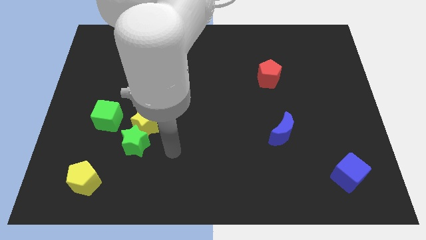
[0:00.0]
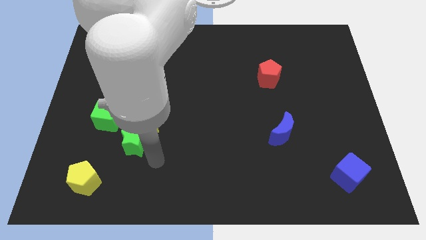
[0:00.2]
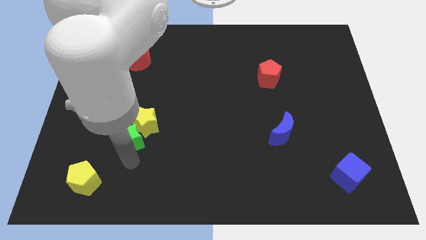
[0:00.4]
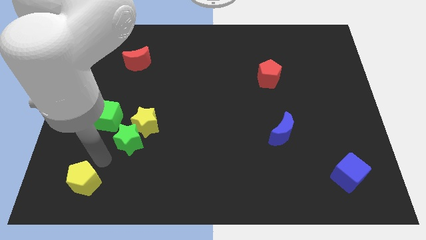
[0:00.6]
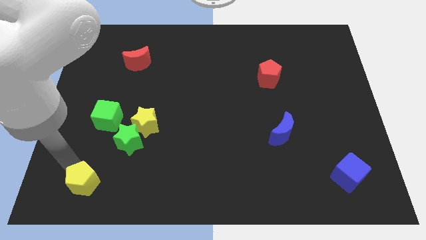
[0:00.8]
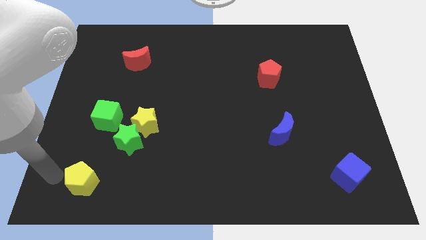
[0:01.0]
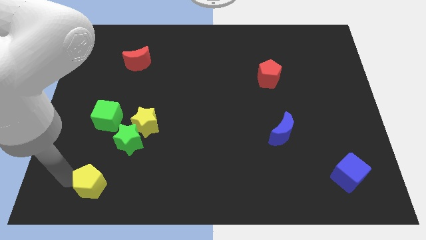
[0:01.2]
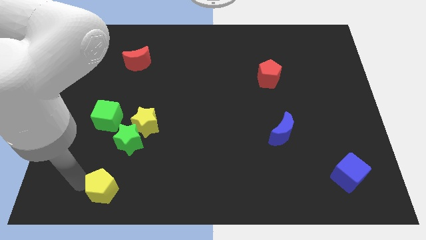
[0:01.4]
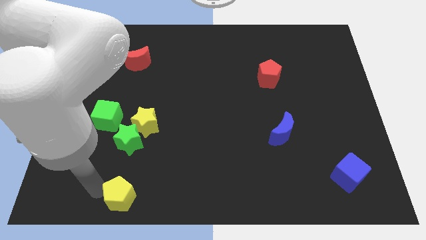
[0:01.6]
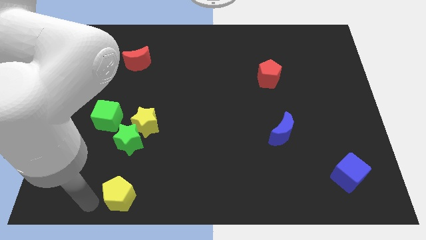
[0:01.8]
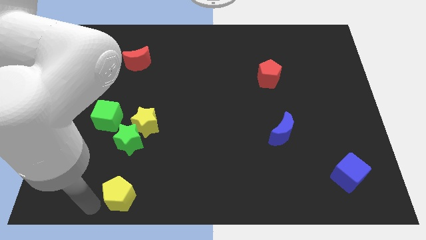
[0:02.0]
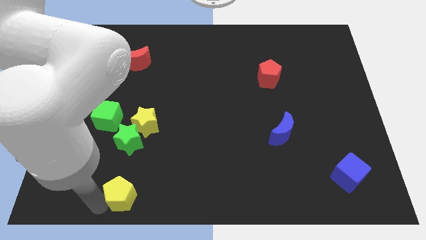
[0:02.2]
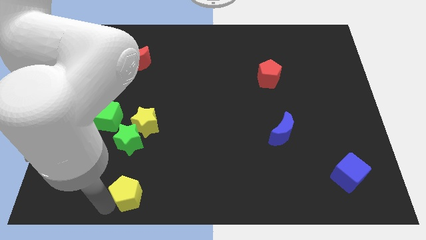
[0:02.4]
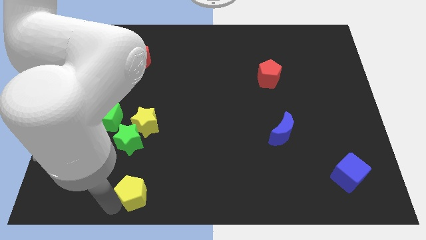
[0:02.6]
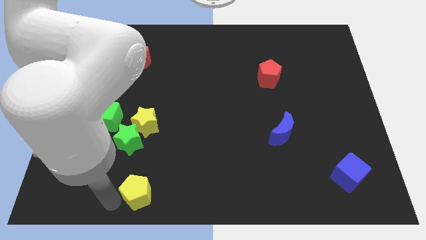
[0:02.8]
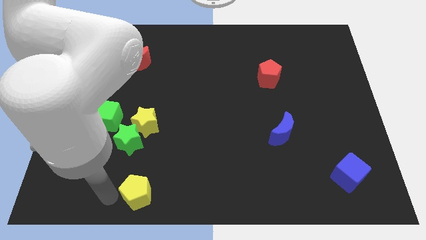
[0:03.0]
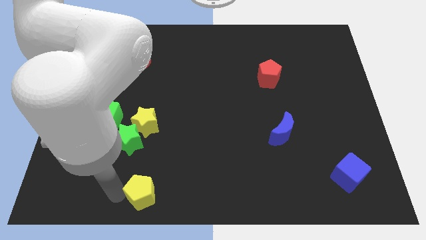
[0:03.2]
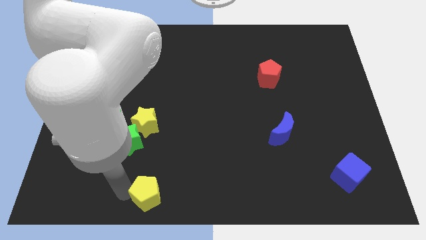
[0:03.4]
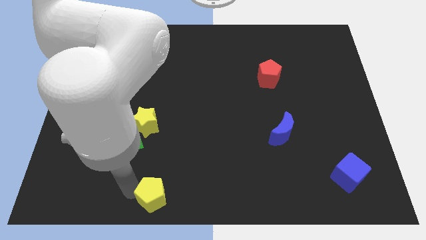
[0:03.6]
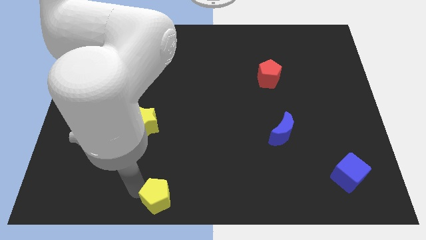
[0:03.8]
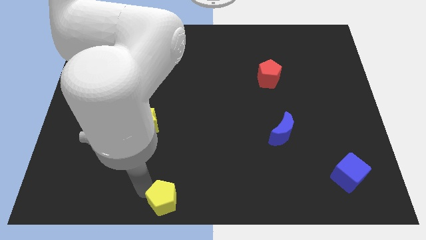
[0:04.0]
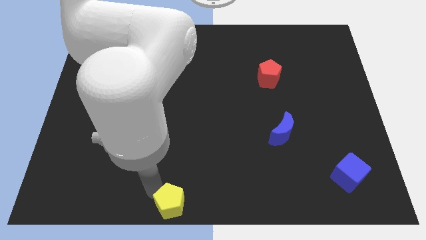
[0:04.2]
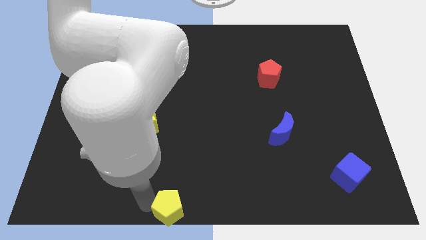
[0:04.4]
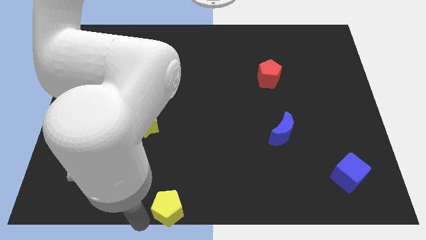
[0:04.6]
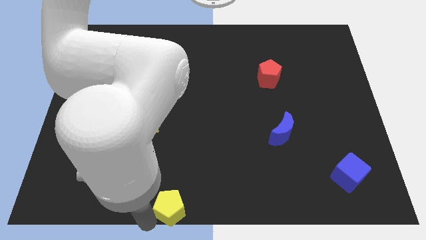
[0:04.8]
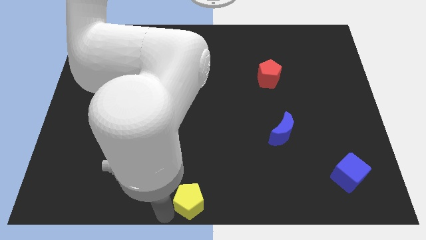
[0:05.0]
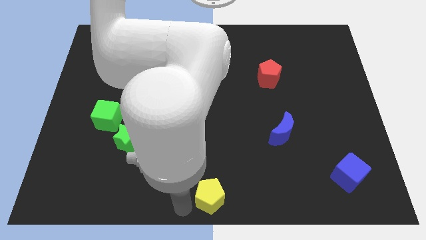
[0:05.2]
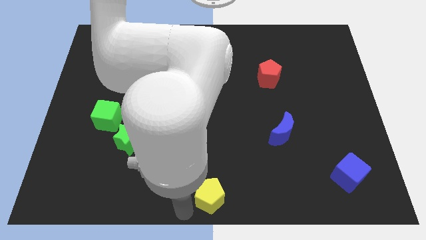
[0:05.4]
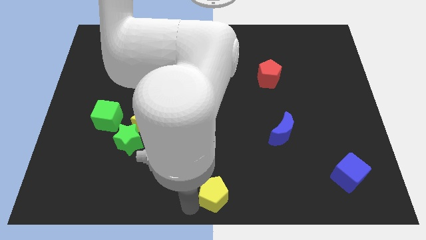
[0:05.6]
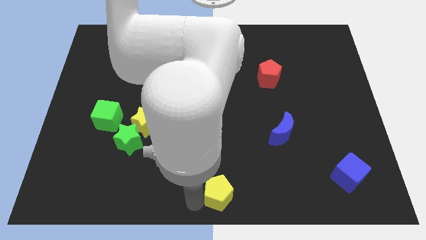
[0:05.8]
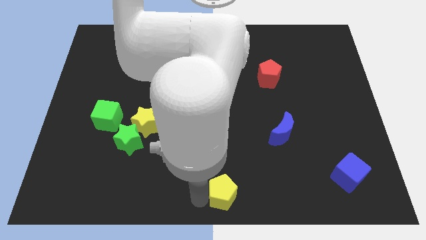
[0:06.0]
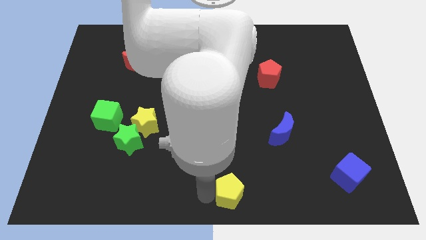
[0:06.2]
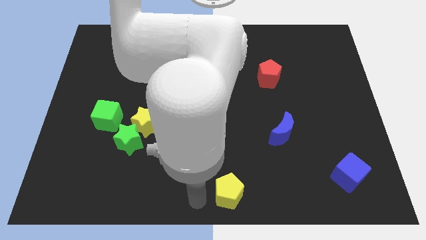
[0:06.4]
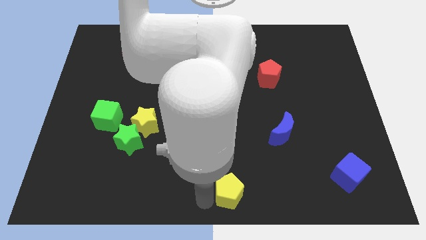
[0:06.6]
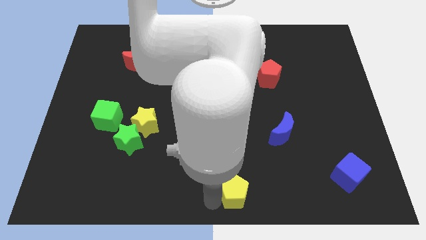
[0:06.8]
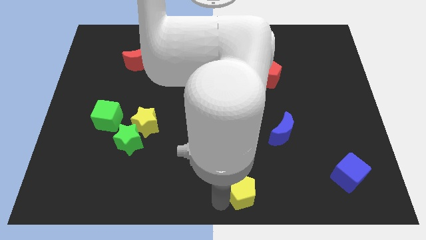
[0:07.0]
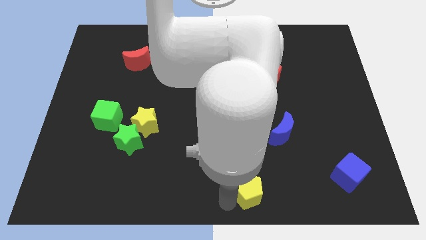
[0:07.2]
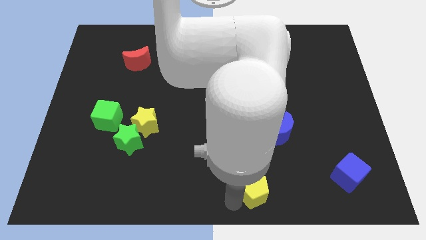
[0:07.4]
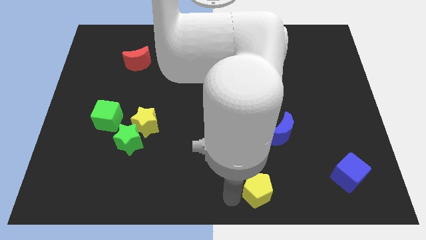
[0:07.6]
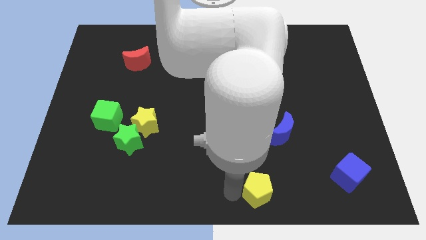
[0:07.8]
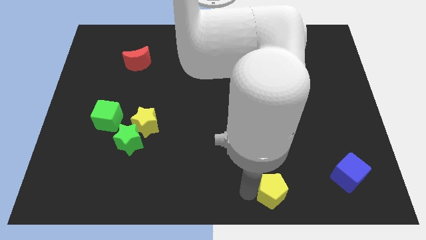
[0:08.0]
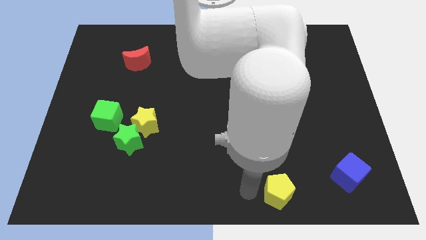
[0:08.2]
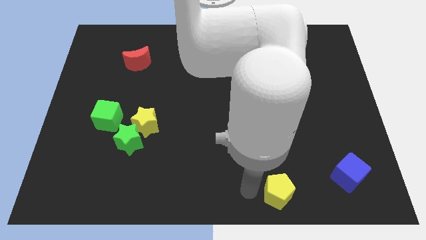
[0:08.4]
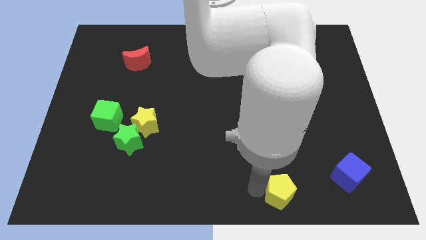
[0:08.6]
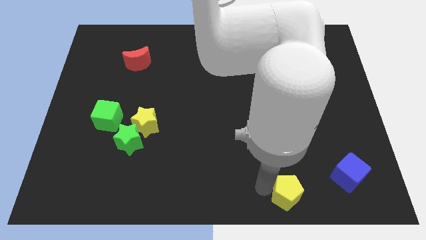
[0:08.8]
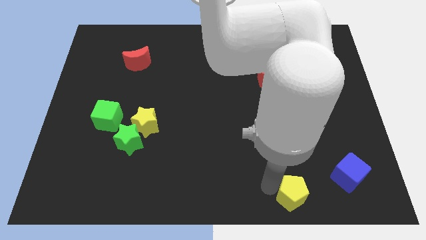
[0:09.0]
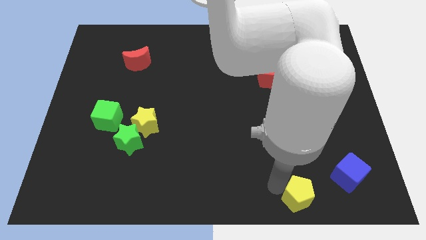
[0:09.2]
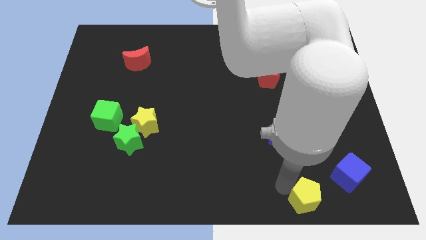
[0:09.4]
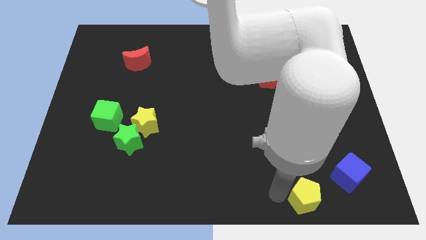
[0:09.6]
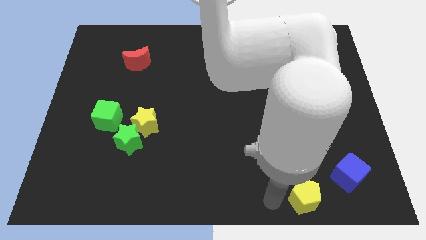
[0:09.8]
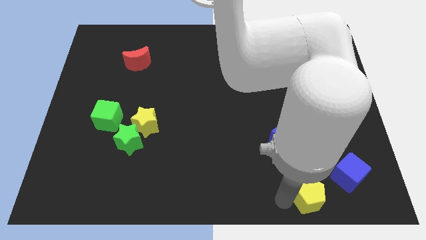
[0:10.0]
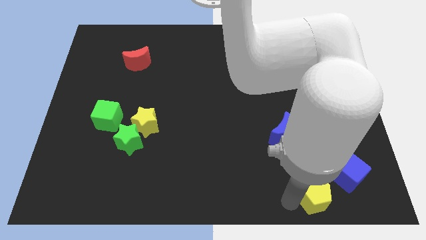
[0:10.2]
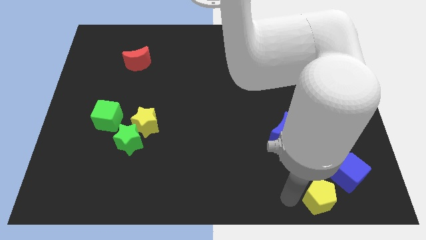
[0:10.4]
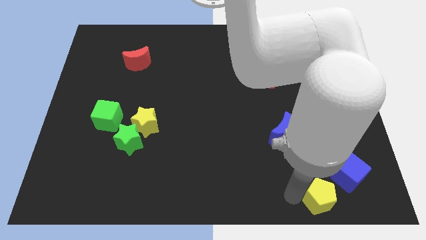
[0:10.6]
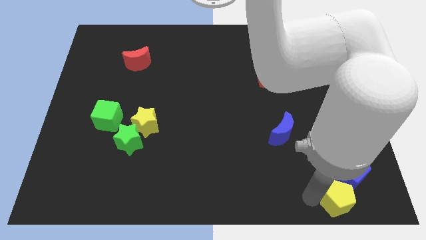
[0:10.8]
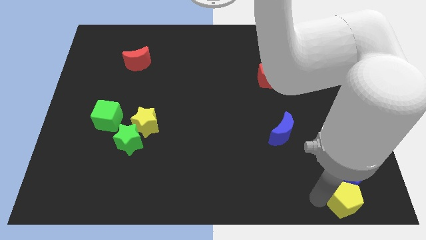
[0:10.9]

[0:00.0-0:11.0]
move the yellow pentagon to the bottom right

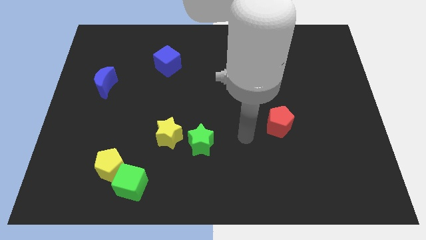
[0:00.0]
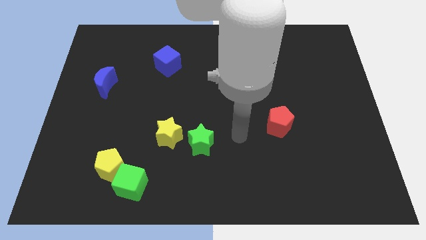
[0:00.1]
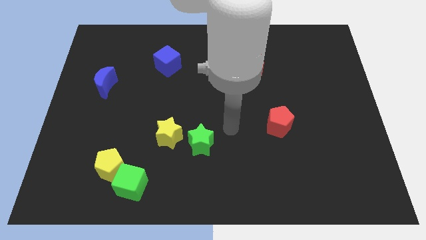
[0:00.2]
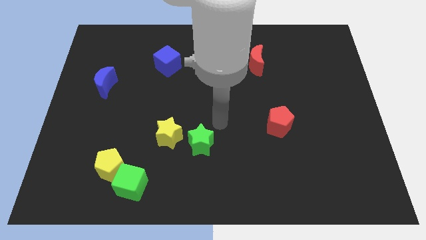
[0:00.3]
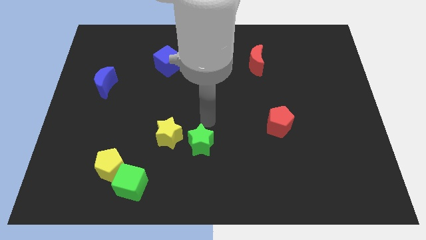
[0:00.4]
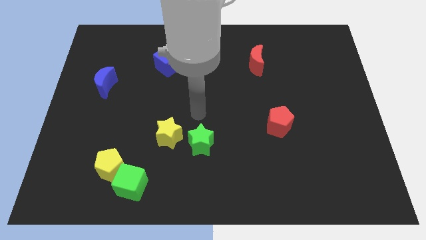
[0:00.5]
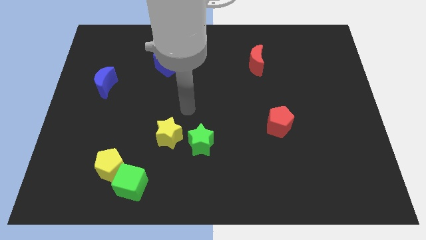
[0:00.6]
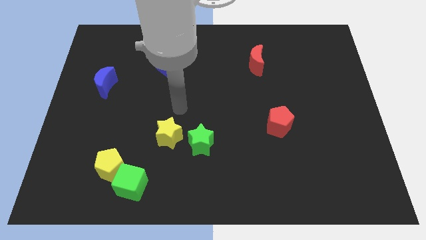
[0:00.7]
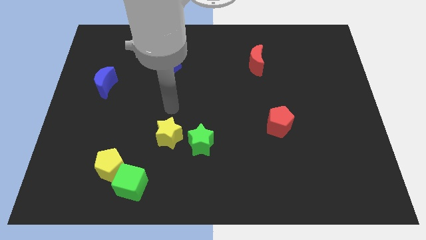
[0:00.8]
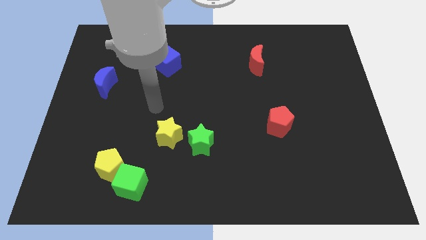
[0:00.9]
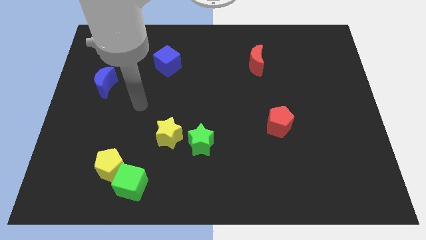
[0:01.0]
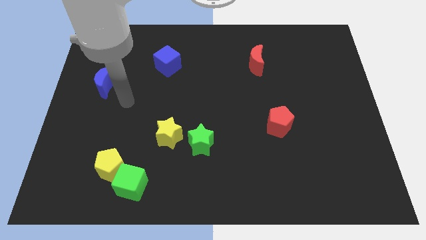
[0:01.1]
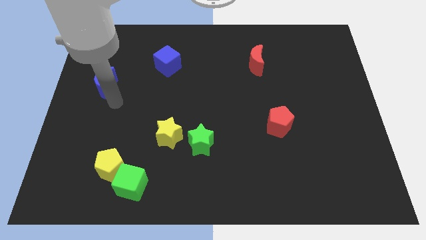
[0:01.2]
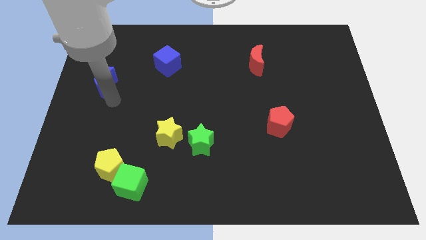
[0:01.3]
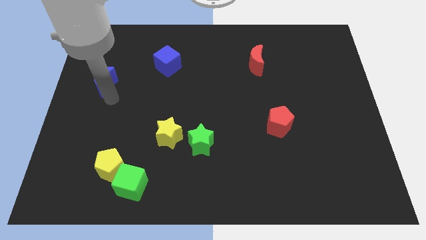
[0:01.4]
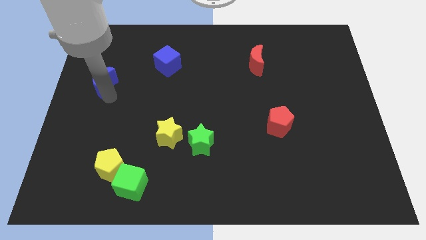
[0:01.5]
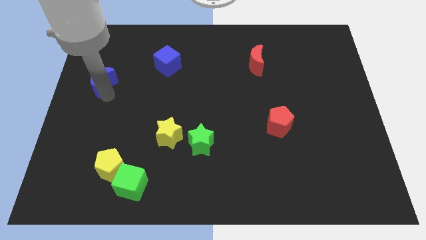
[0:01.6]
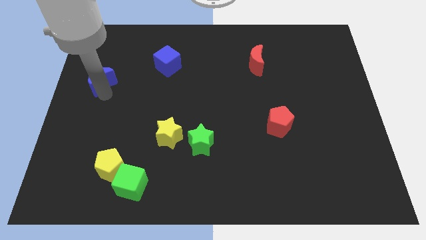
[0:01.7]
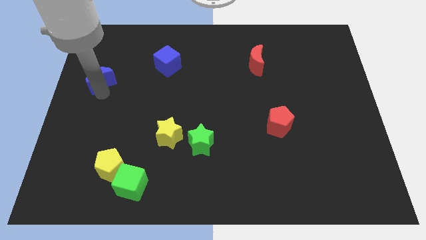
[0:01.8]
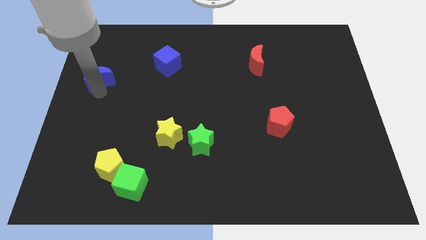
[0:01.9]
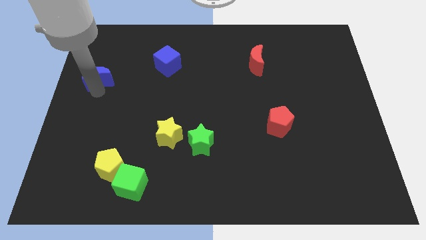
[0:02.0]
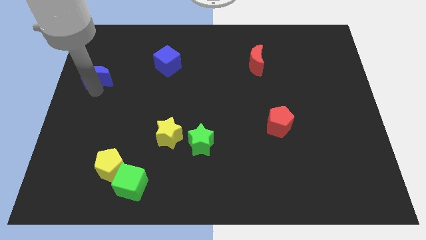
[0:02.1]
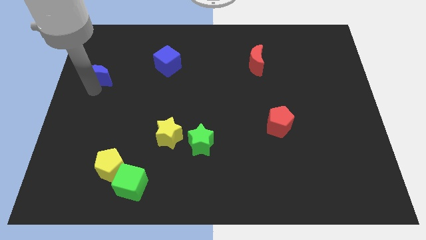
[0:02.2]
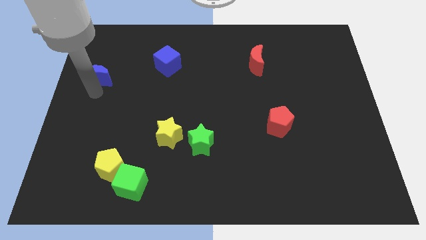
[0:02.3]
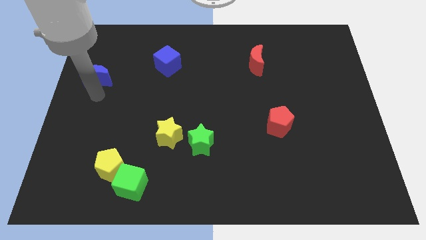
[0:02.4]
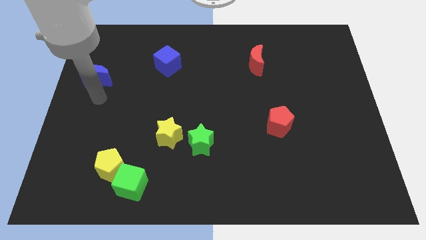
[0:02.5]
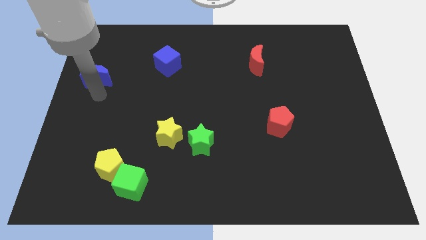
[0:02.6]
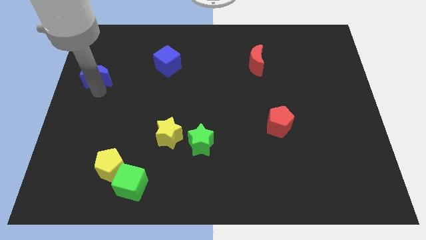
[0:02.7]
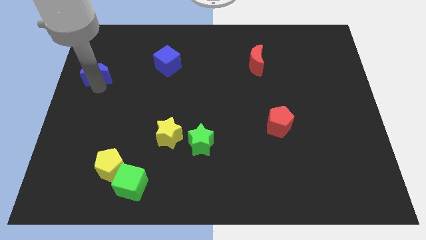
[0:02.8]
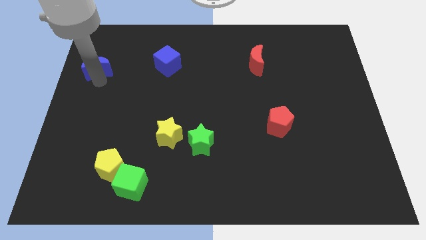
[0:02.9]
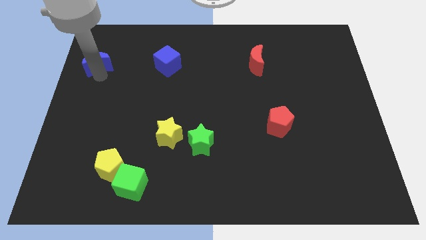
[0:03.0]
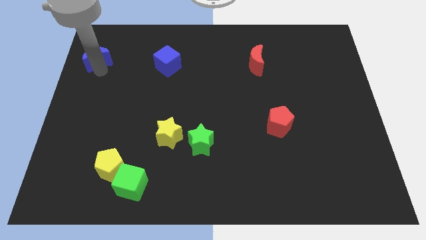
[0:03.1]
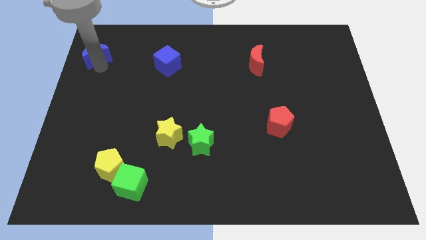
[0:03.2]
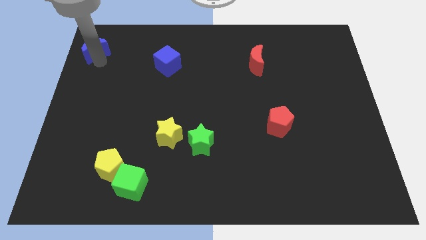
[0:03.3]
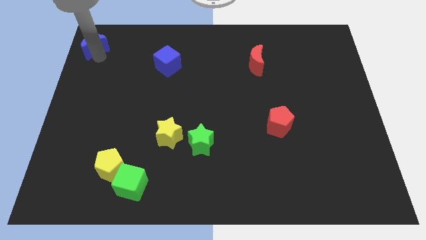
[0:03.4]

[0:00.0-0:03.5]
put the blue moon to the top left corner
